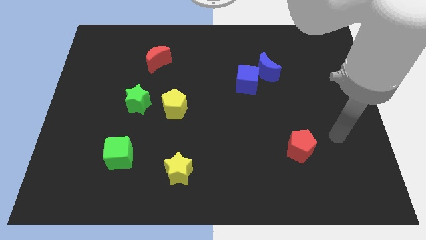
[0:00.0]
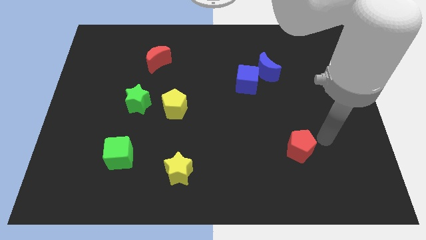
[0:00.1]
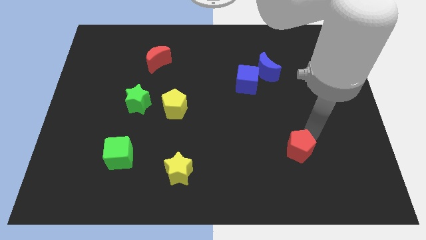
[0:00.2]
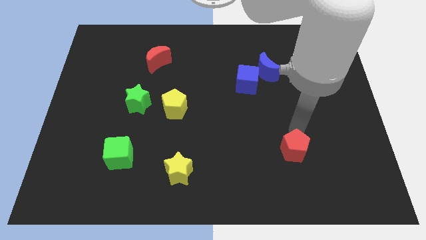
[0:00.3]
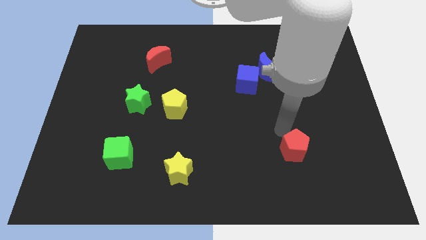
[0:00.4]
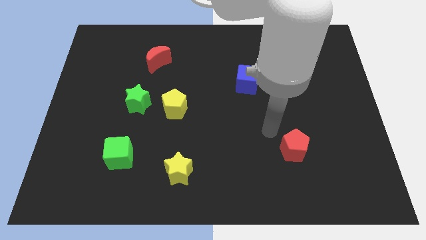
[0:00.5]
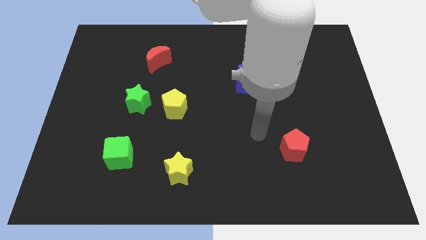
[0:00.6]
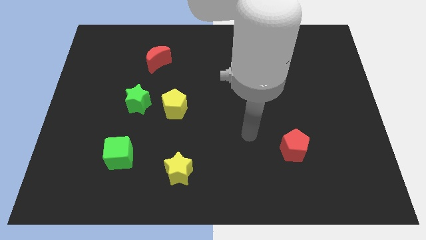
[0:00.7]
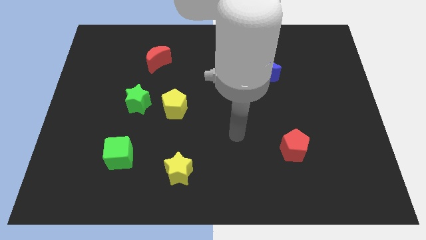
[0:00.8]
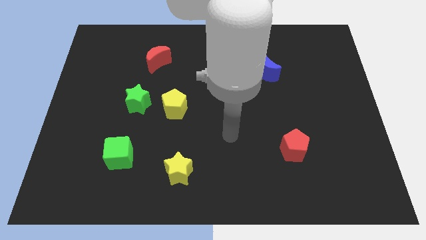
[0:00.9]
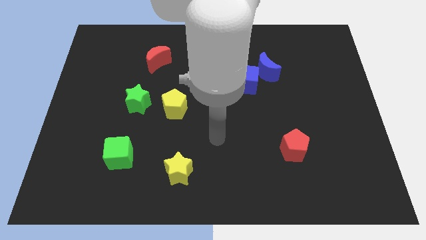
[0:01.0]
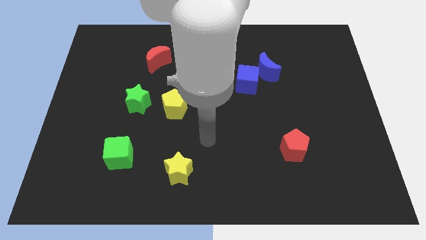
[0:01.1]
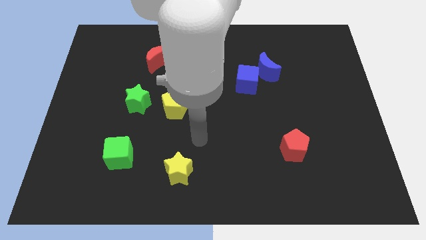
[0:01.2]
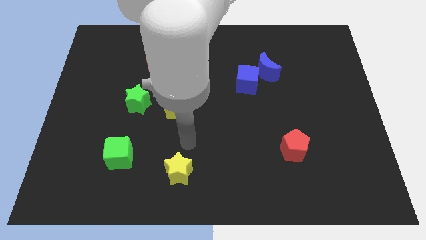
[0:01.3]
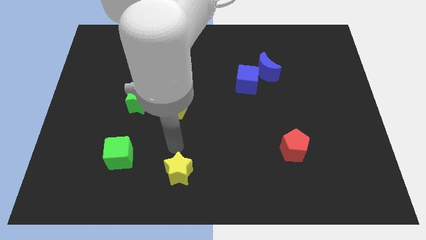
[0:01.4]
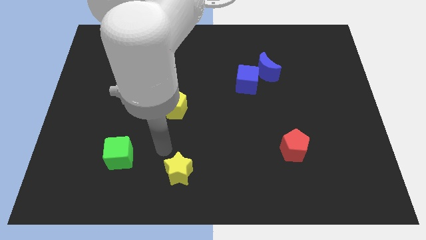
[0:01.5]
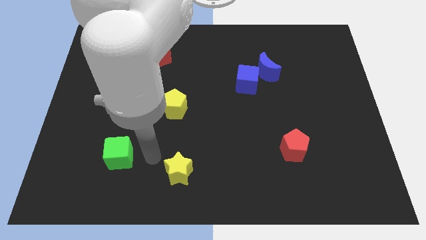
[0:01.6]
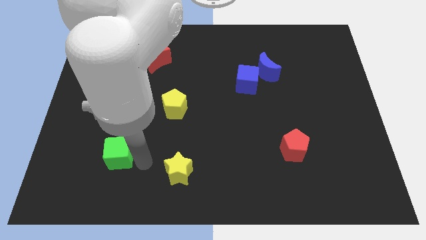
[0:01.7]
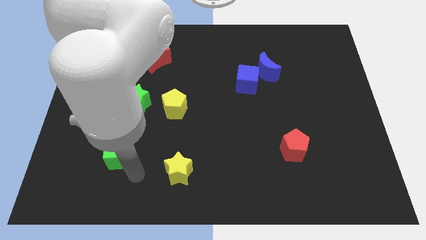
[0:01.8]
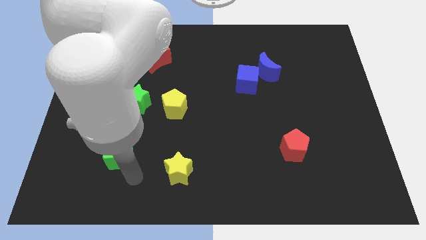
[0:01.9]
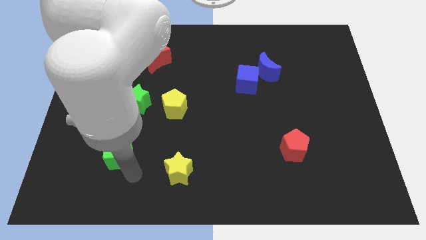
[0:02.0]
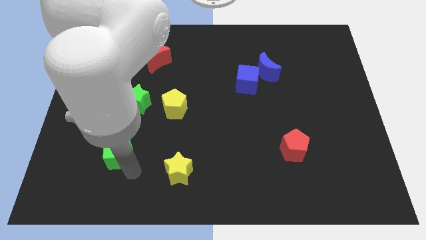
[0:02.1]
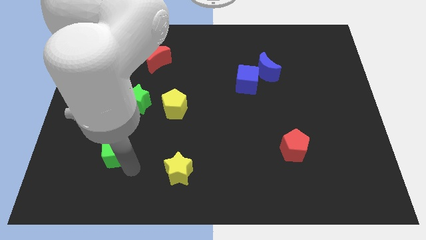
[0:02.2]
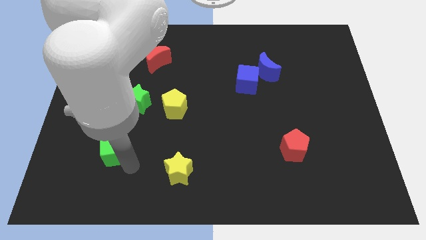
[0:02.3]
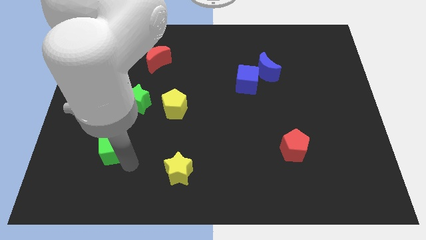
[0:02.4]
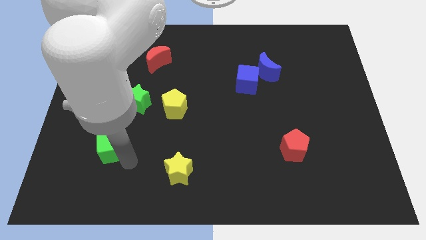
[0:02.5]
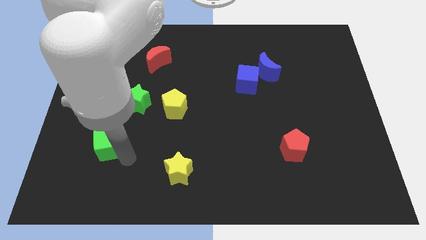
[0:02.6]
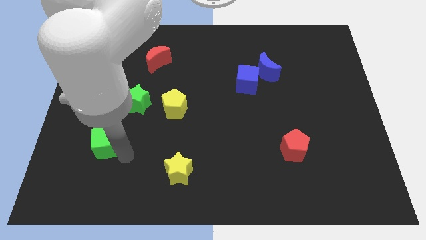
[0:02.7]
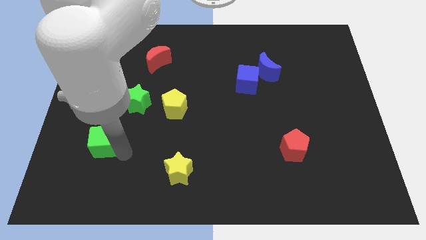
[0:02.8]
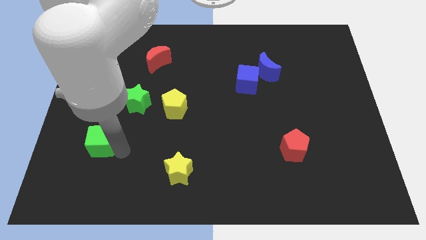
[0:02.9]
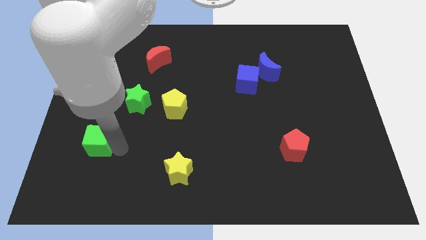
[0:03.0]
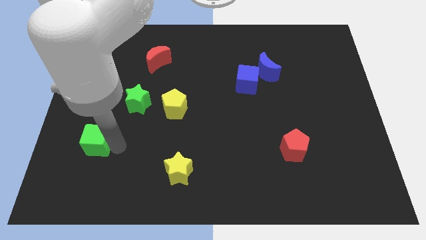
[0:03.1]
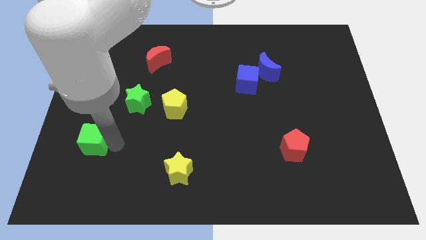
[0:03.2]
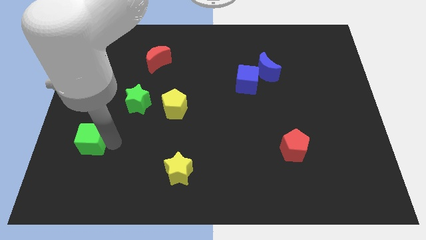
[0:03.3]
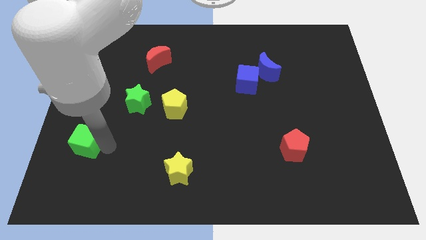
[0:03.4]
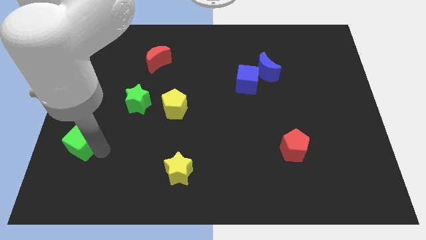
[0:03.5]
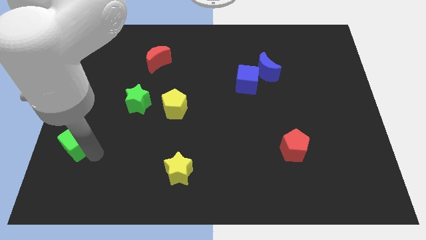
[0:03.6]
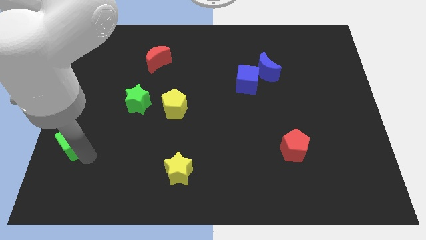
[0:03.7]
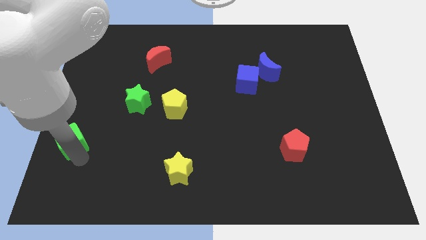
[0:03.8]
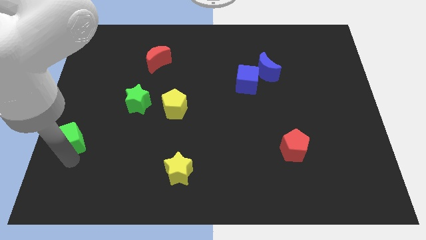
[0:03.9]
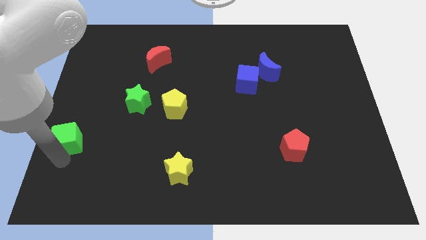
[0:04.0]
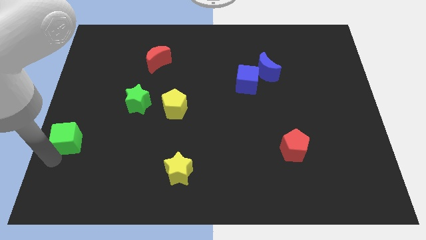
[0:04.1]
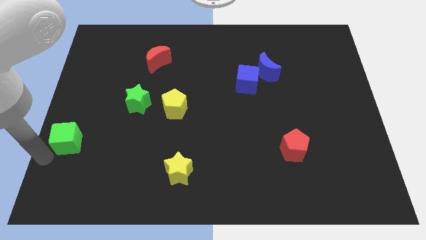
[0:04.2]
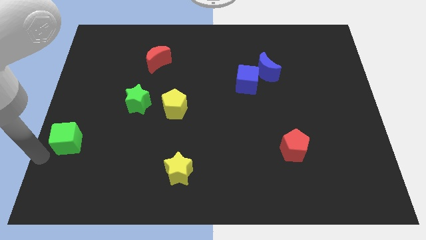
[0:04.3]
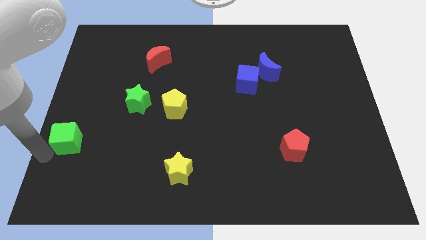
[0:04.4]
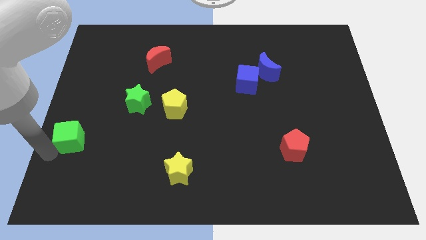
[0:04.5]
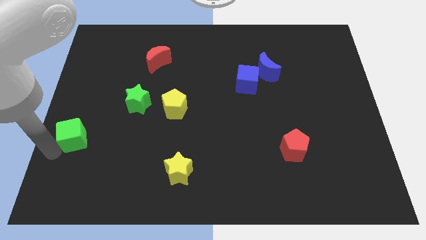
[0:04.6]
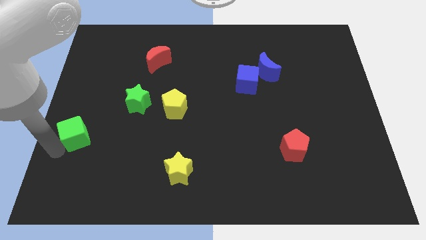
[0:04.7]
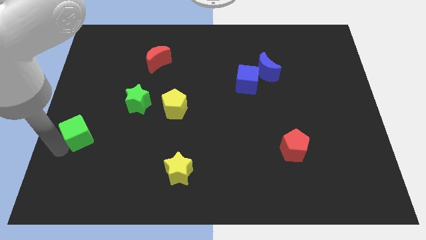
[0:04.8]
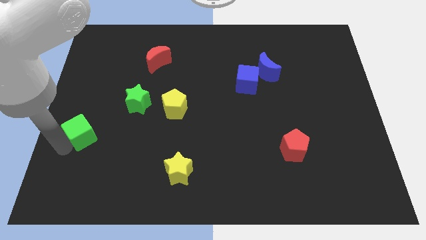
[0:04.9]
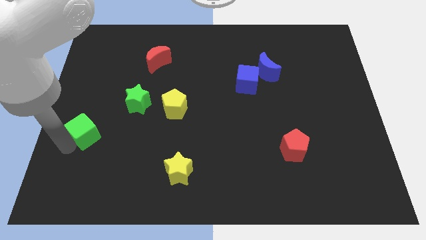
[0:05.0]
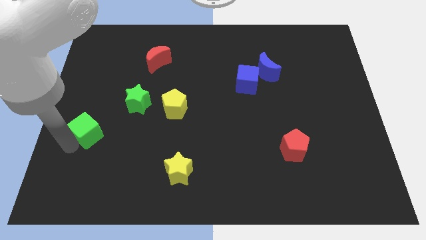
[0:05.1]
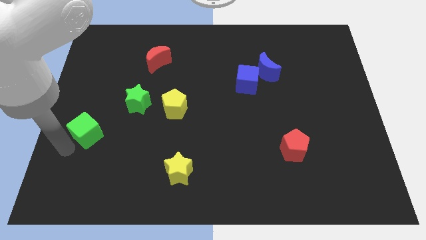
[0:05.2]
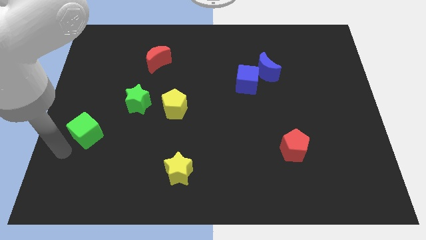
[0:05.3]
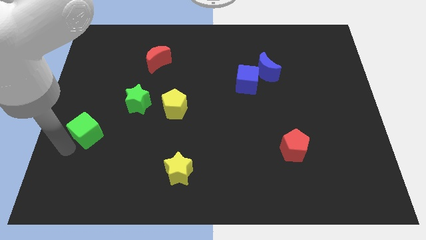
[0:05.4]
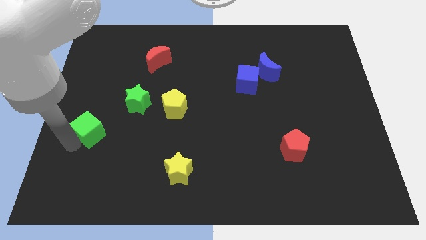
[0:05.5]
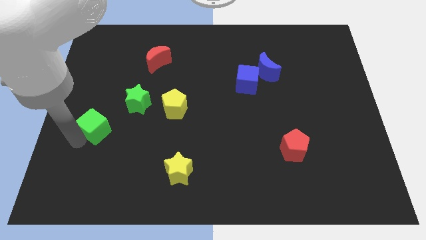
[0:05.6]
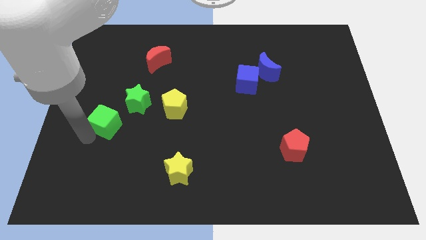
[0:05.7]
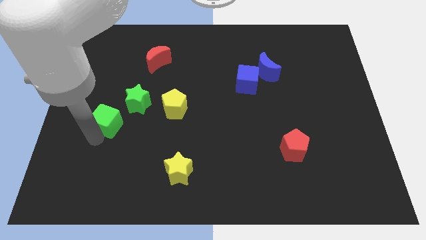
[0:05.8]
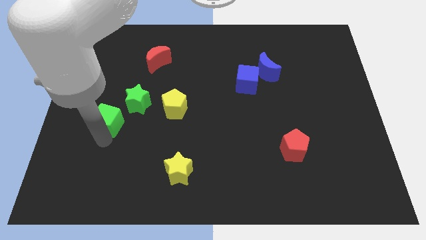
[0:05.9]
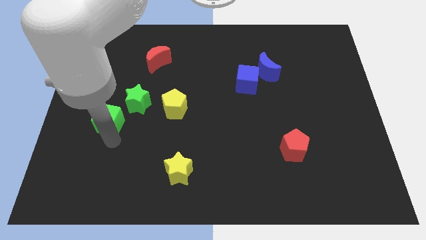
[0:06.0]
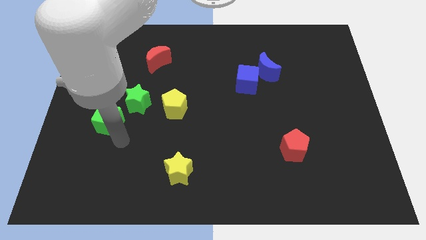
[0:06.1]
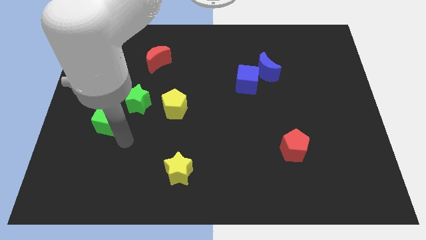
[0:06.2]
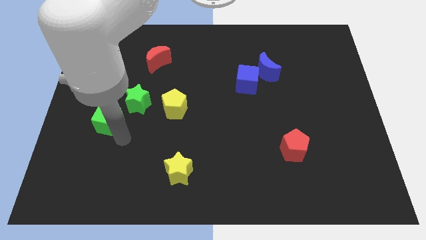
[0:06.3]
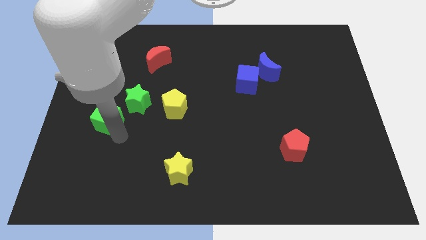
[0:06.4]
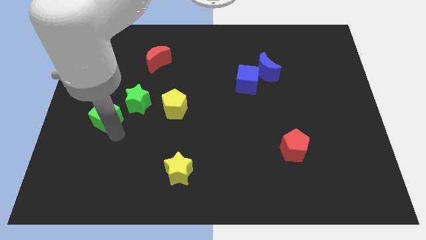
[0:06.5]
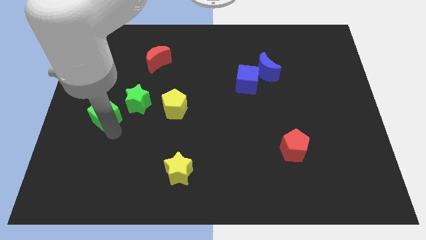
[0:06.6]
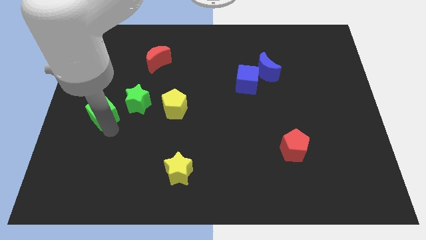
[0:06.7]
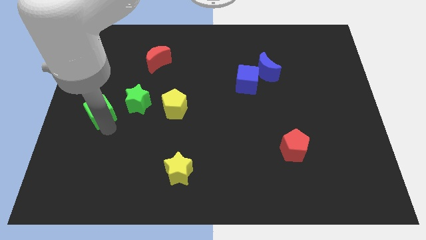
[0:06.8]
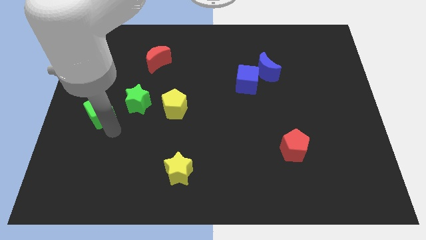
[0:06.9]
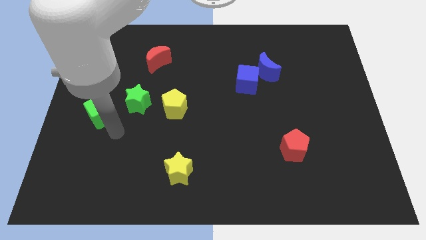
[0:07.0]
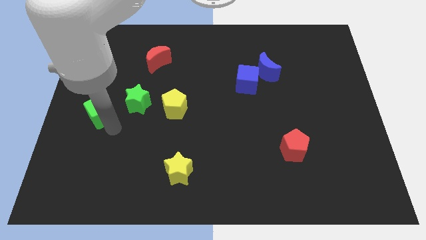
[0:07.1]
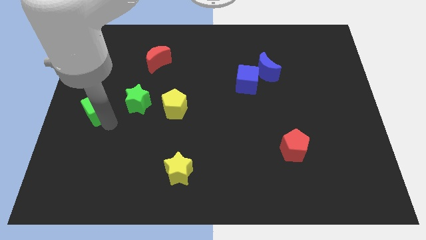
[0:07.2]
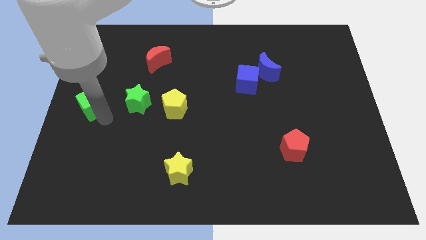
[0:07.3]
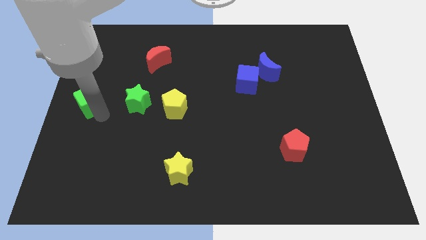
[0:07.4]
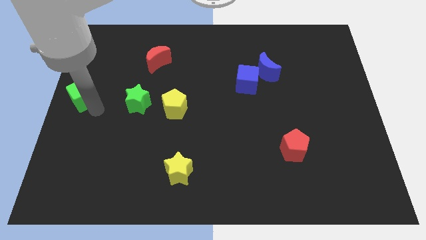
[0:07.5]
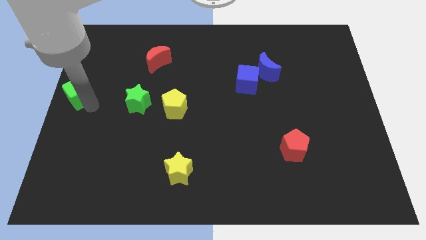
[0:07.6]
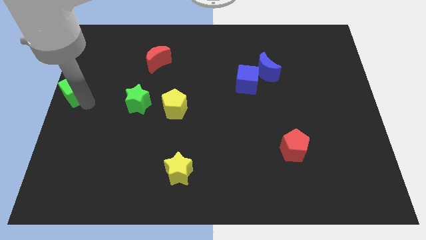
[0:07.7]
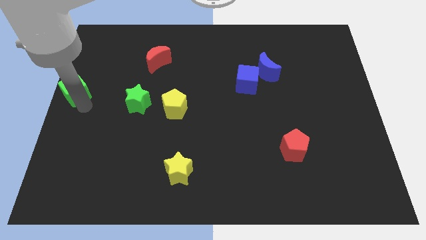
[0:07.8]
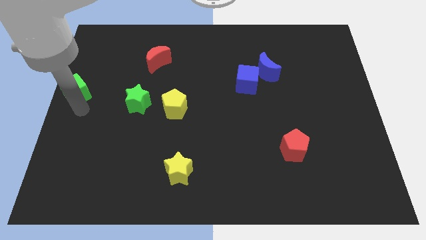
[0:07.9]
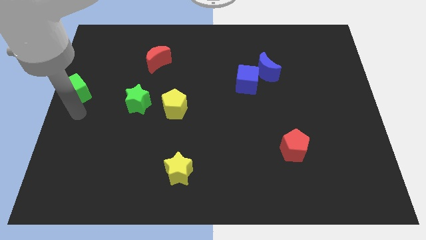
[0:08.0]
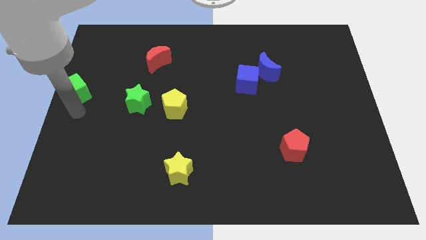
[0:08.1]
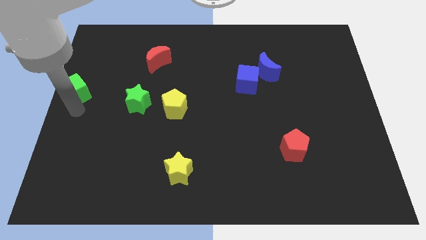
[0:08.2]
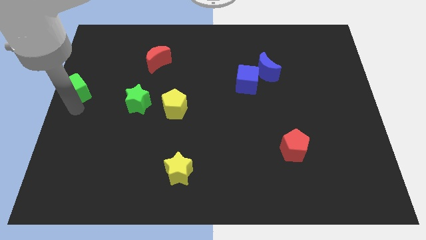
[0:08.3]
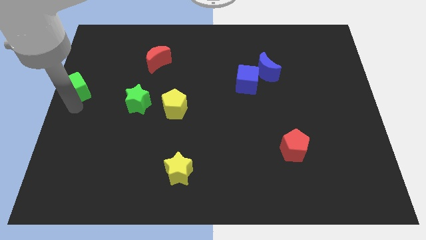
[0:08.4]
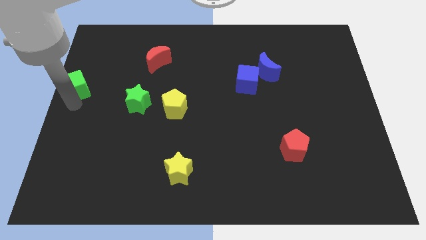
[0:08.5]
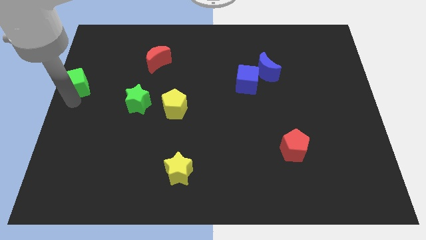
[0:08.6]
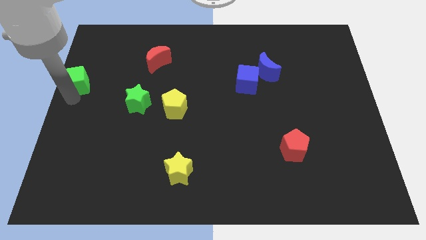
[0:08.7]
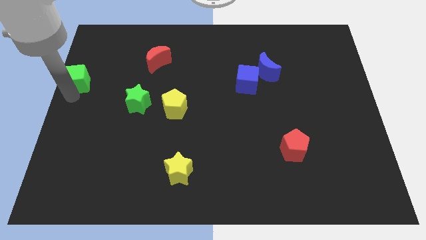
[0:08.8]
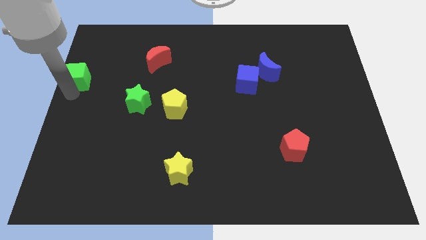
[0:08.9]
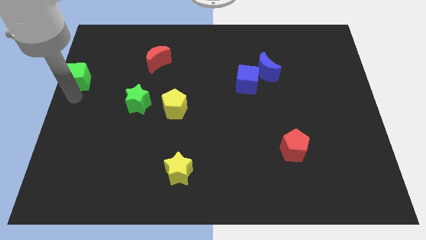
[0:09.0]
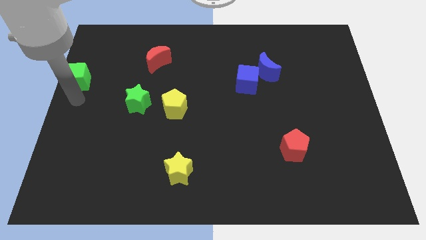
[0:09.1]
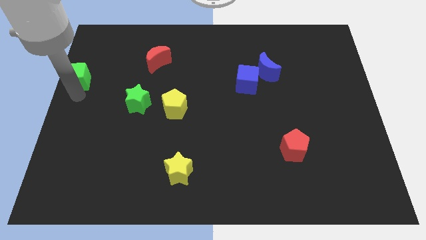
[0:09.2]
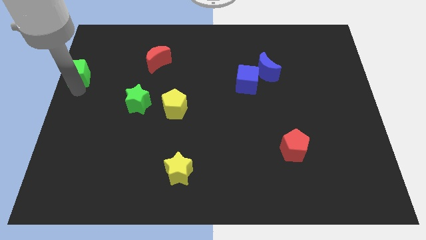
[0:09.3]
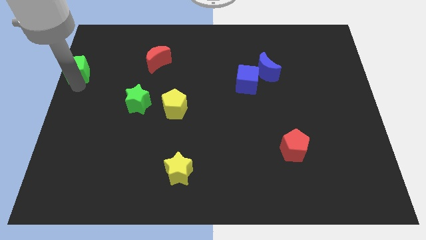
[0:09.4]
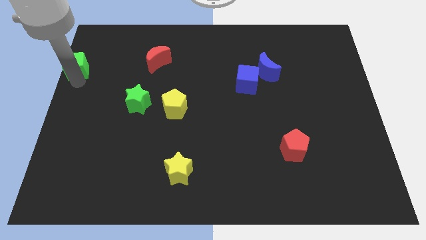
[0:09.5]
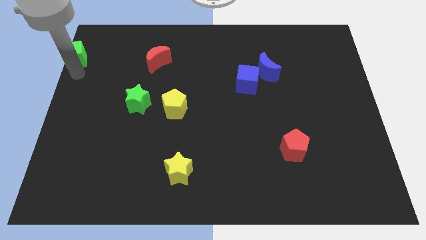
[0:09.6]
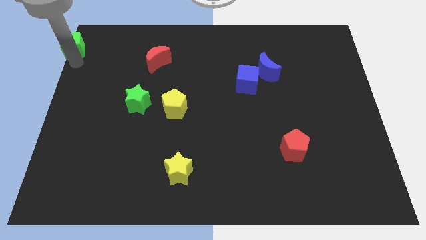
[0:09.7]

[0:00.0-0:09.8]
push the green cube to the top left
